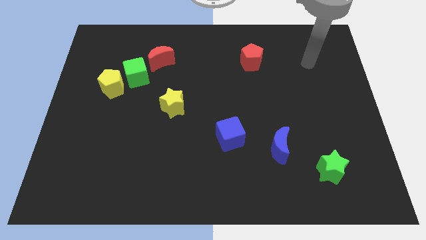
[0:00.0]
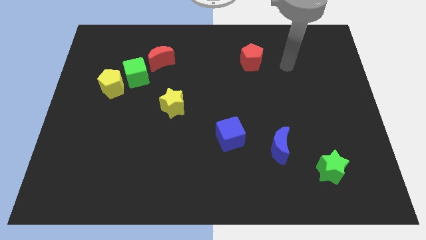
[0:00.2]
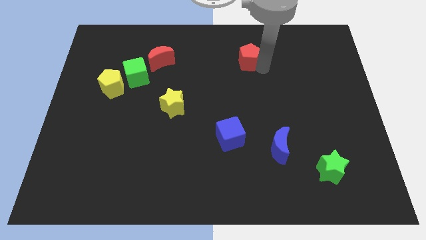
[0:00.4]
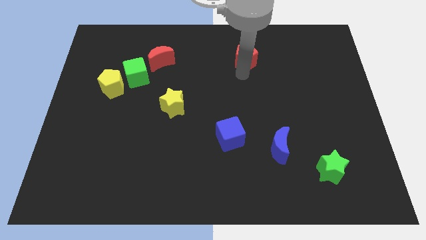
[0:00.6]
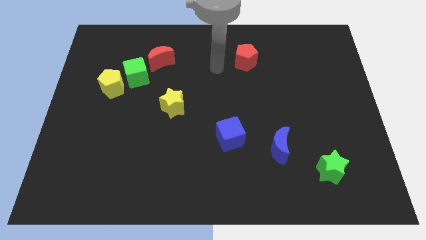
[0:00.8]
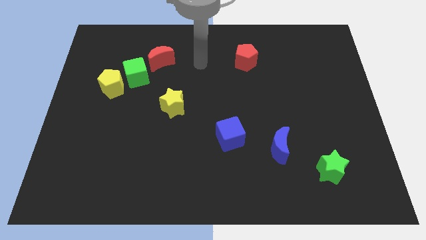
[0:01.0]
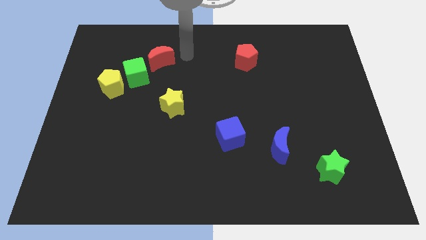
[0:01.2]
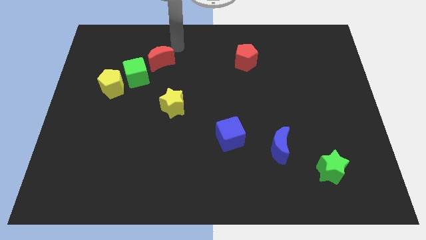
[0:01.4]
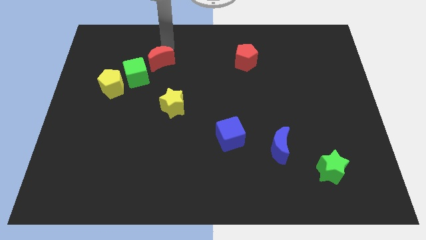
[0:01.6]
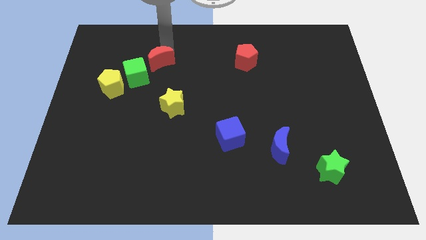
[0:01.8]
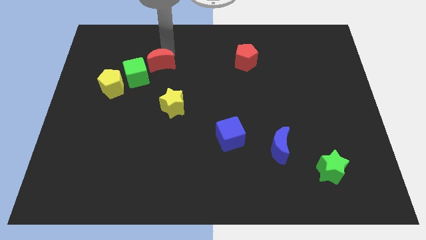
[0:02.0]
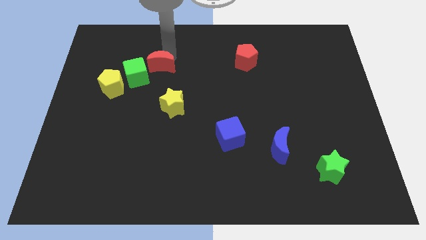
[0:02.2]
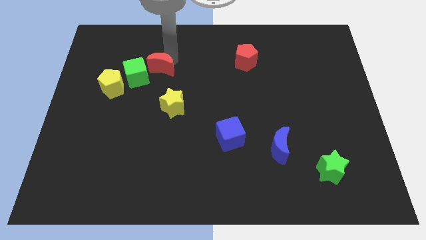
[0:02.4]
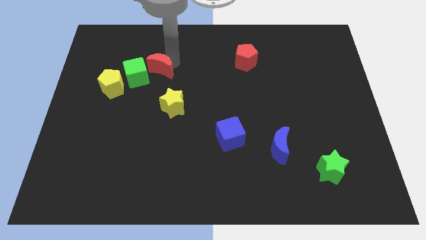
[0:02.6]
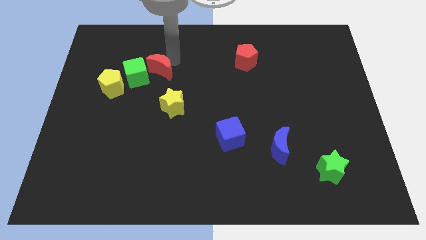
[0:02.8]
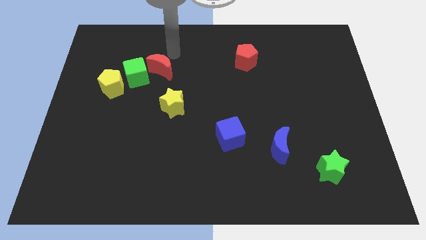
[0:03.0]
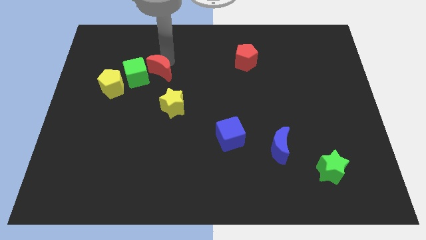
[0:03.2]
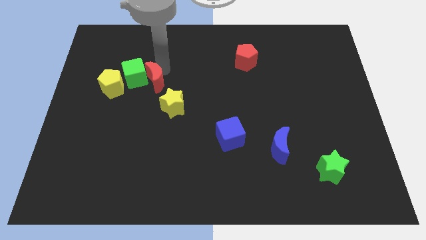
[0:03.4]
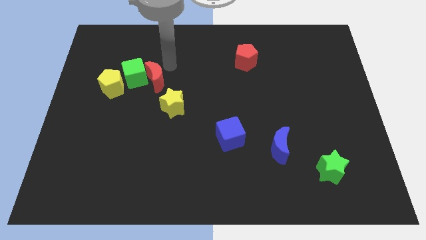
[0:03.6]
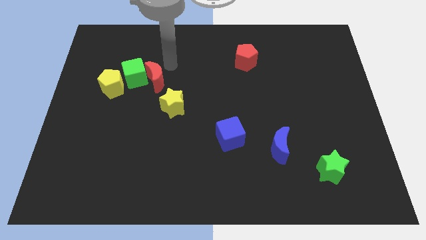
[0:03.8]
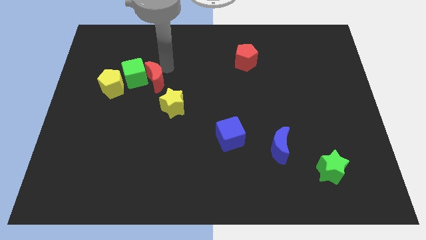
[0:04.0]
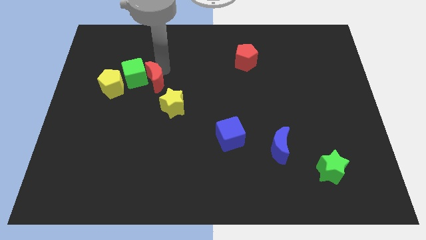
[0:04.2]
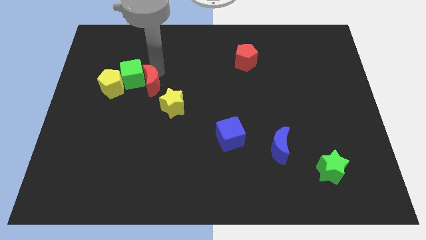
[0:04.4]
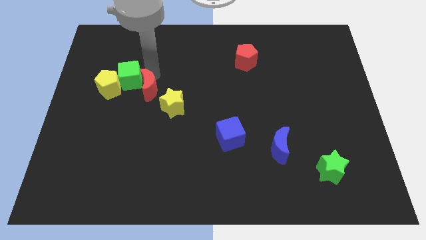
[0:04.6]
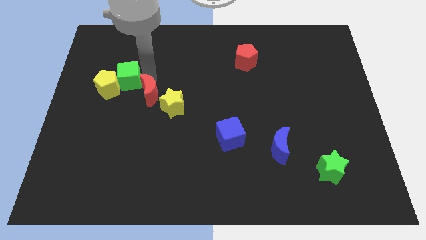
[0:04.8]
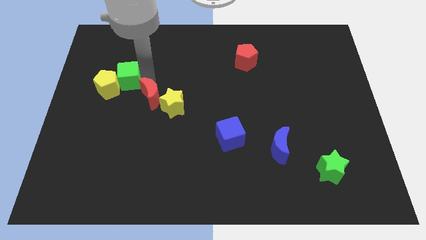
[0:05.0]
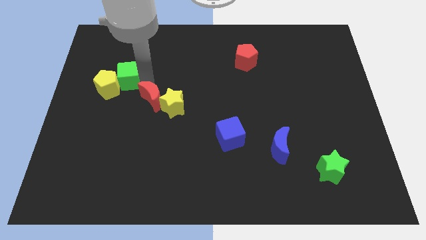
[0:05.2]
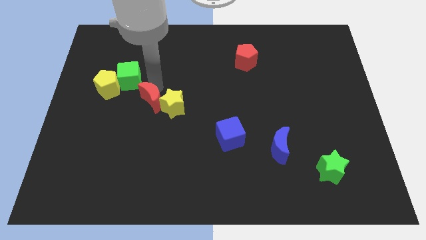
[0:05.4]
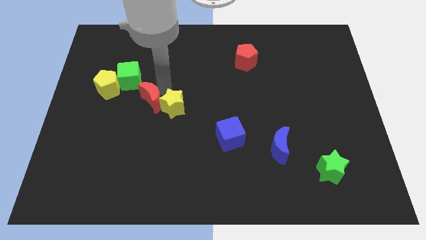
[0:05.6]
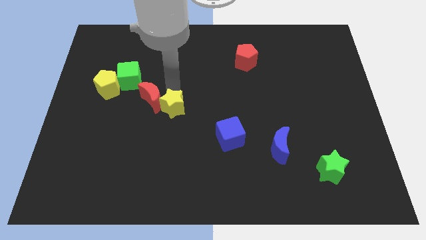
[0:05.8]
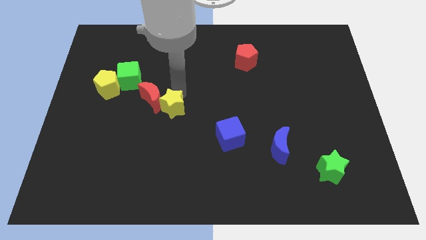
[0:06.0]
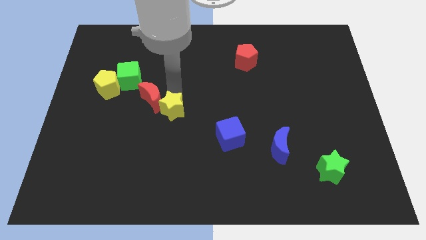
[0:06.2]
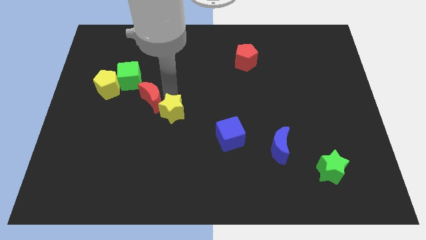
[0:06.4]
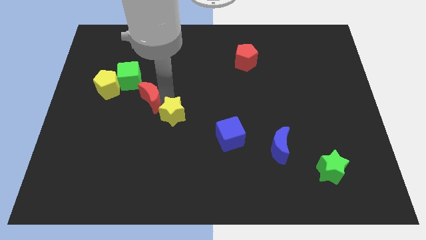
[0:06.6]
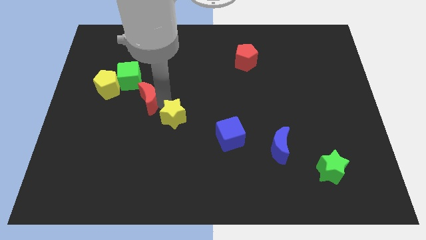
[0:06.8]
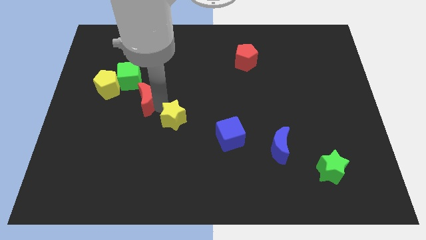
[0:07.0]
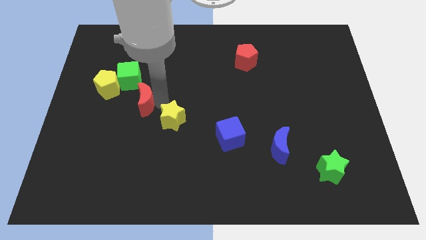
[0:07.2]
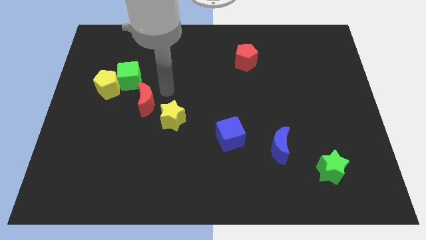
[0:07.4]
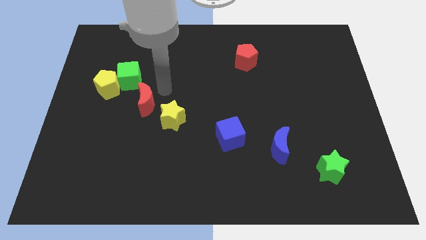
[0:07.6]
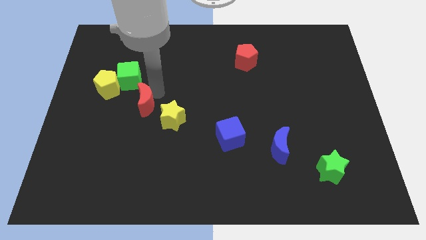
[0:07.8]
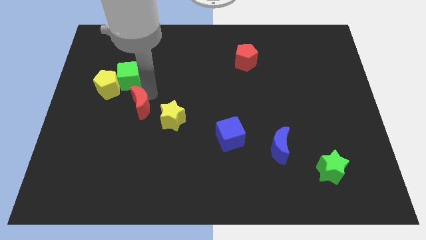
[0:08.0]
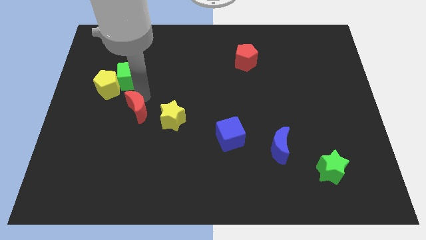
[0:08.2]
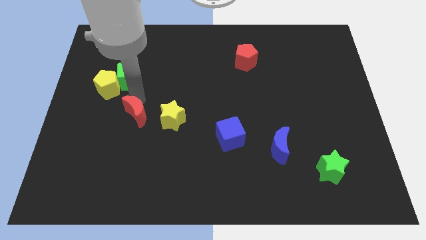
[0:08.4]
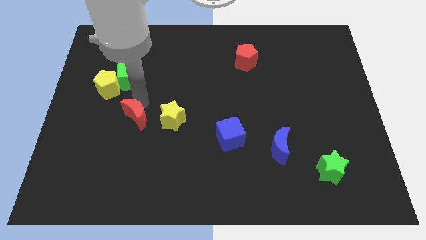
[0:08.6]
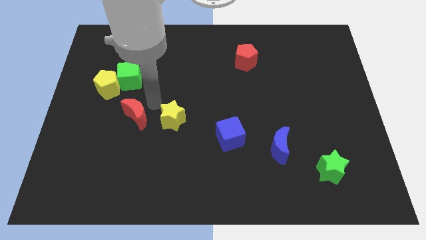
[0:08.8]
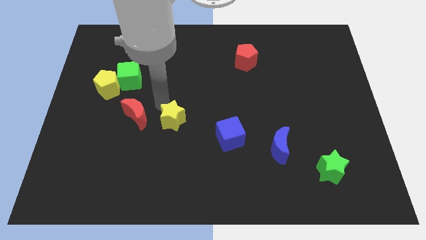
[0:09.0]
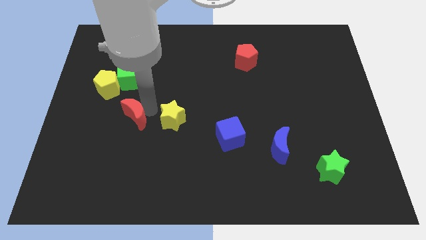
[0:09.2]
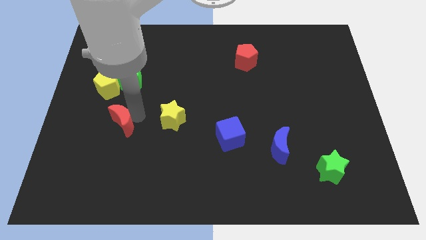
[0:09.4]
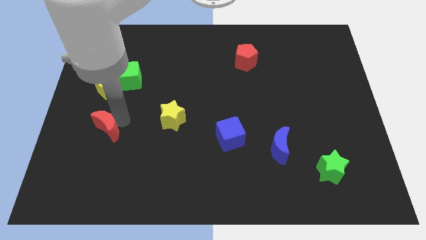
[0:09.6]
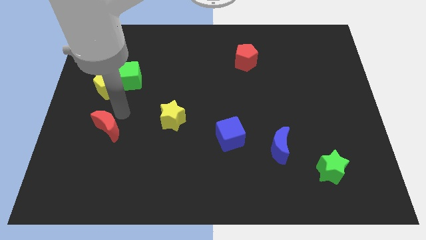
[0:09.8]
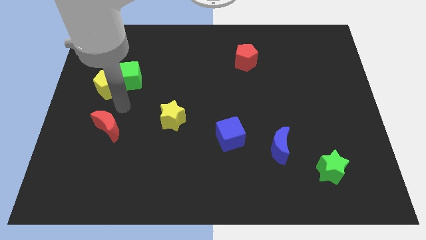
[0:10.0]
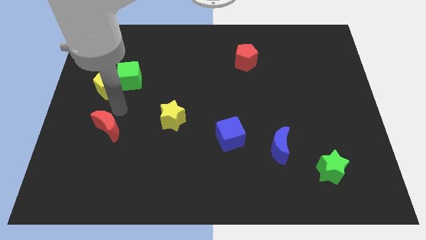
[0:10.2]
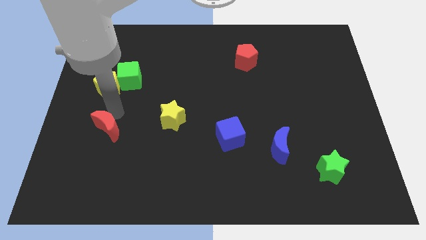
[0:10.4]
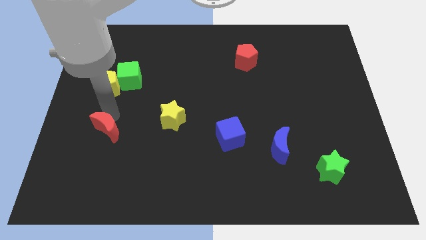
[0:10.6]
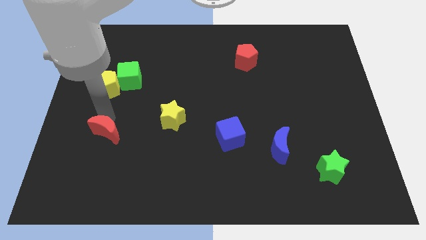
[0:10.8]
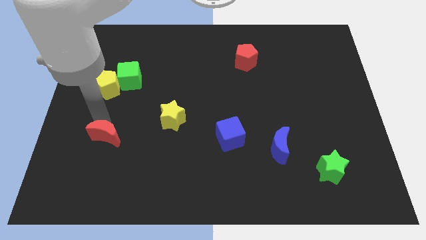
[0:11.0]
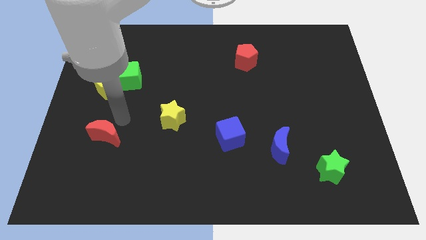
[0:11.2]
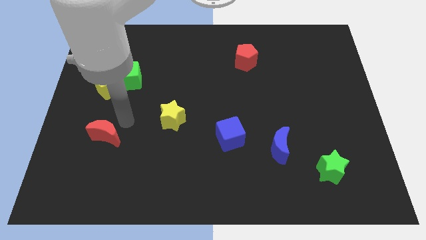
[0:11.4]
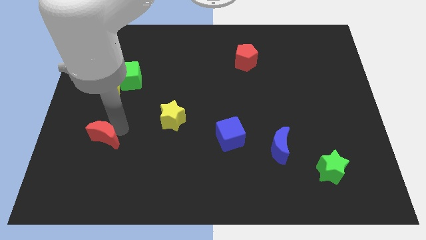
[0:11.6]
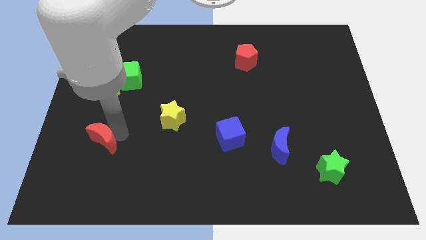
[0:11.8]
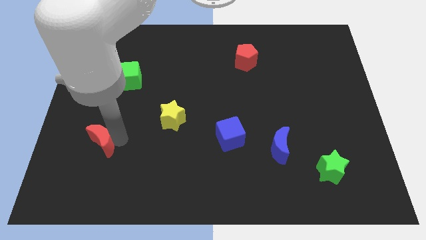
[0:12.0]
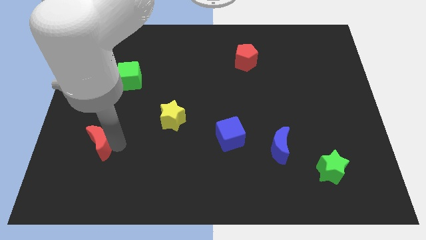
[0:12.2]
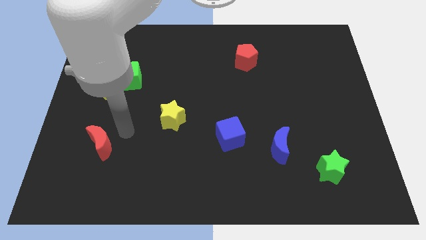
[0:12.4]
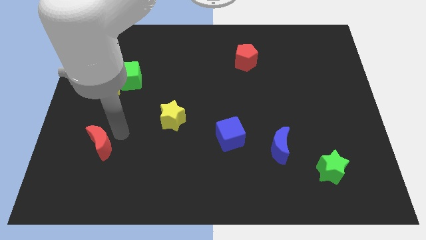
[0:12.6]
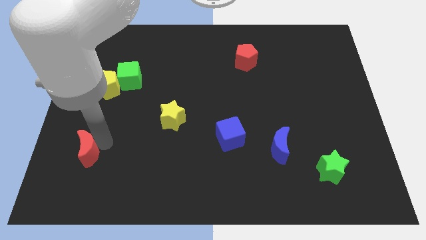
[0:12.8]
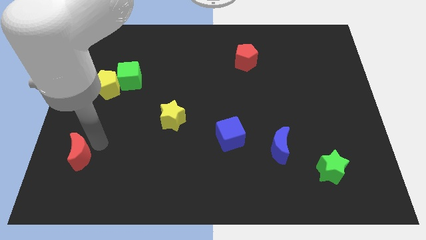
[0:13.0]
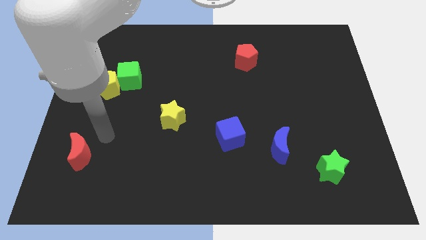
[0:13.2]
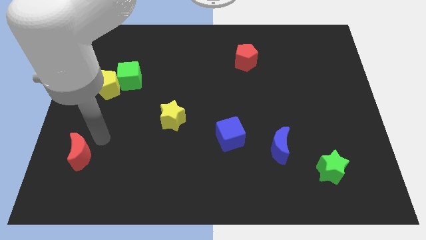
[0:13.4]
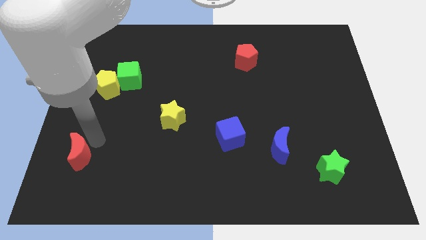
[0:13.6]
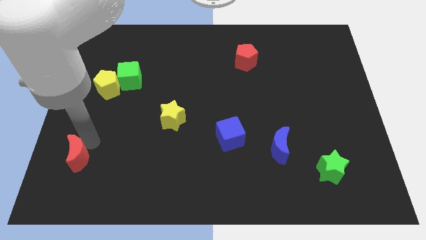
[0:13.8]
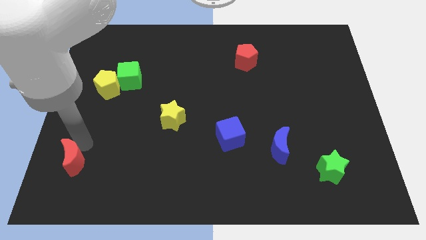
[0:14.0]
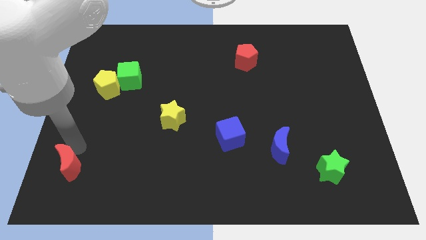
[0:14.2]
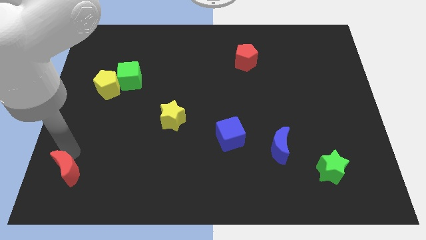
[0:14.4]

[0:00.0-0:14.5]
push the red moon to the lower left corner
